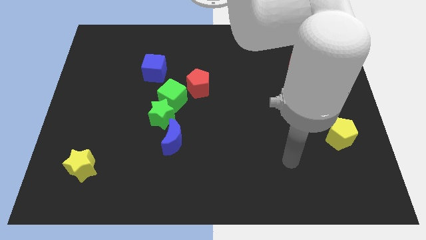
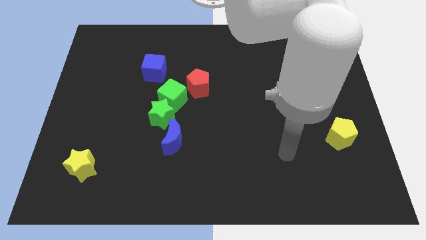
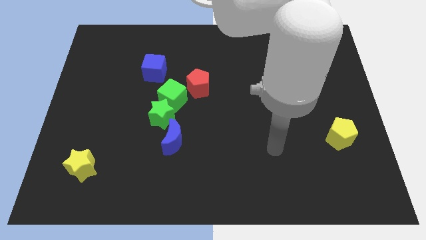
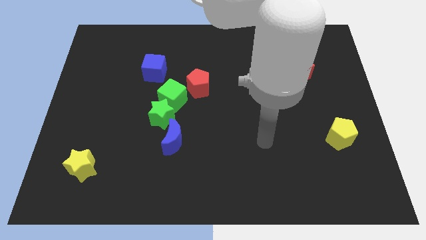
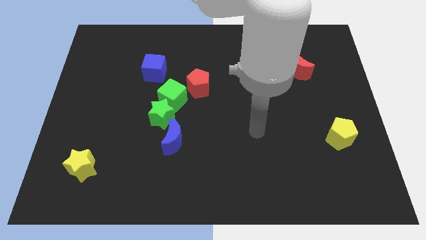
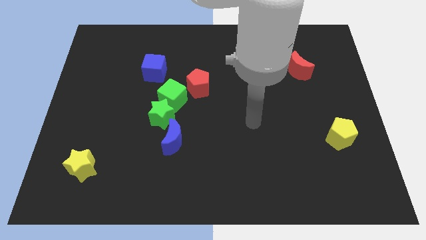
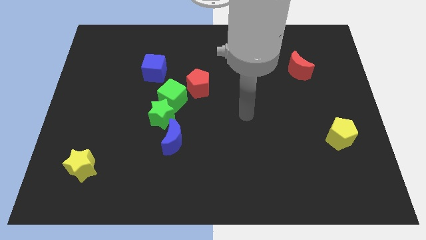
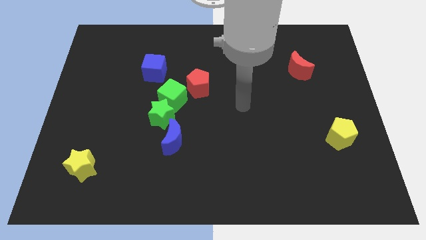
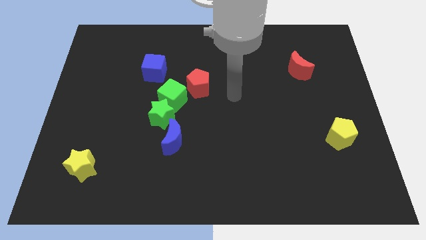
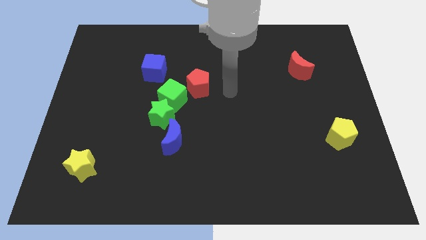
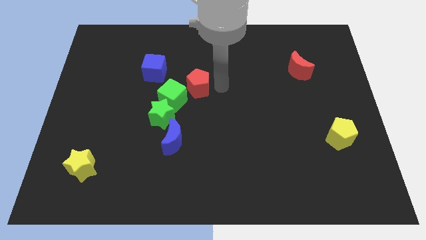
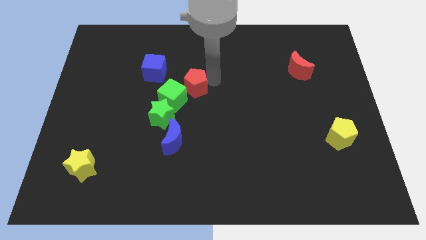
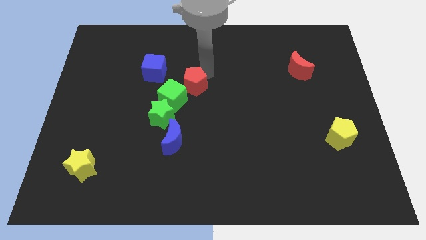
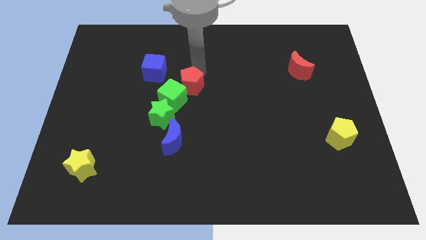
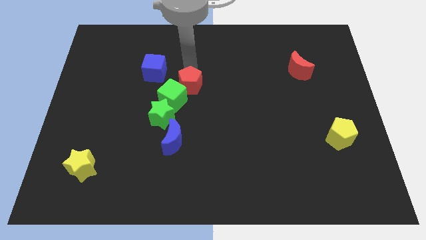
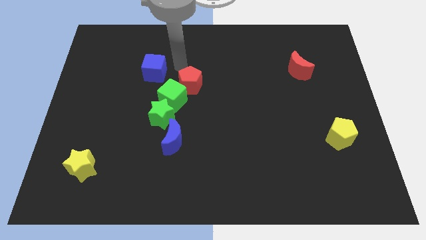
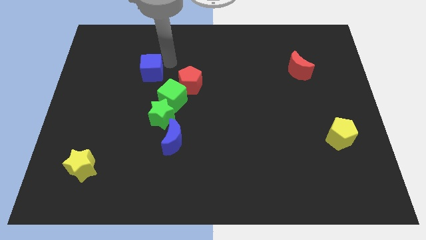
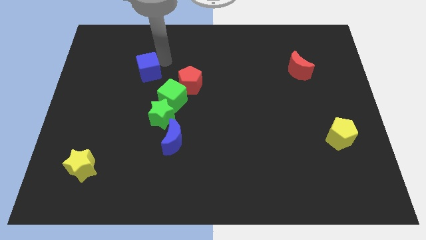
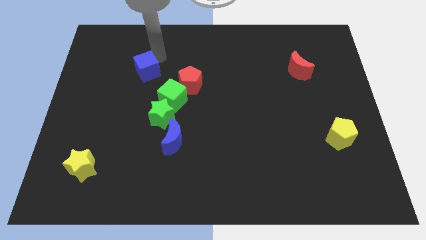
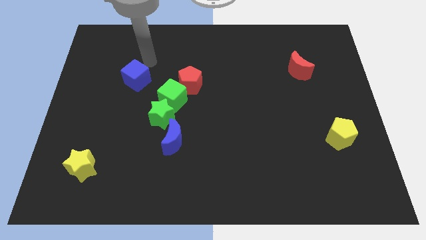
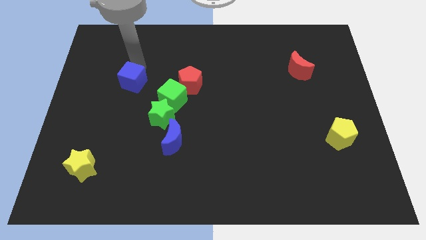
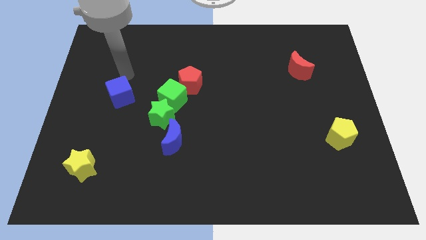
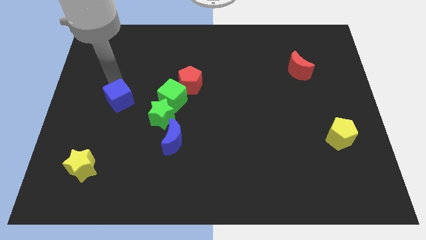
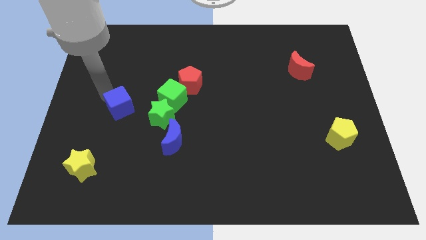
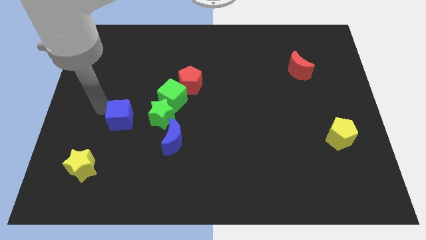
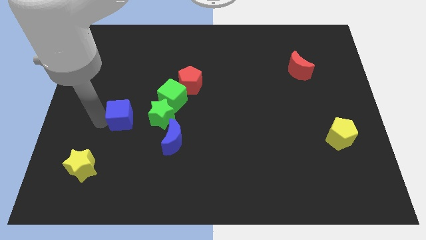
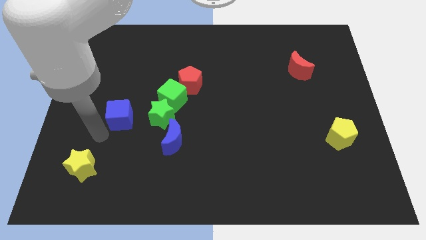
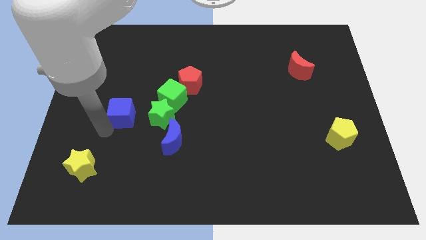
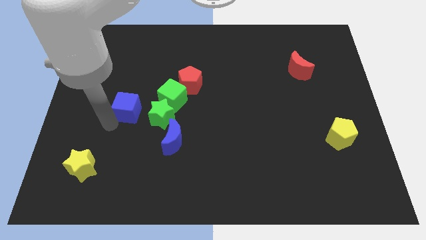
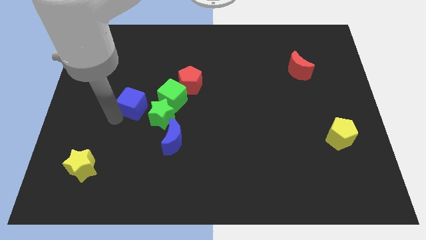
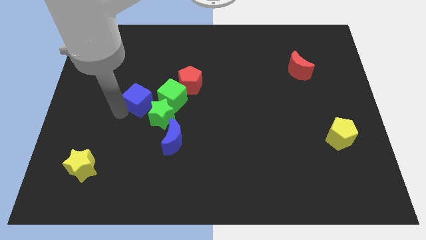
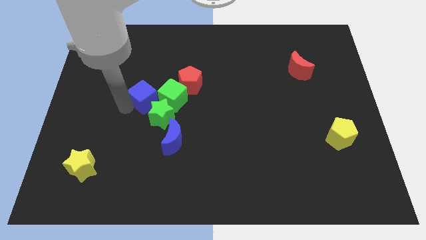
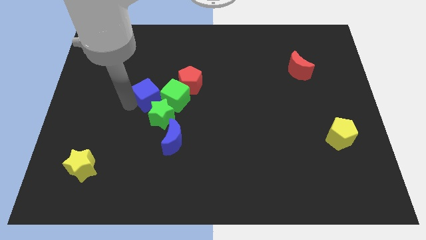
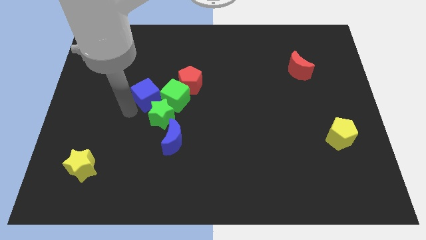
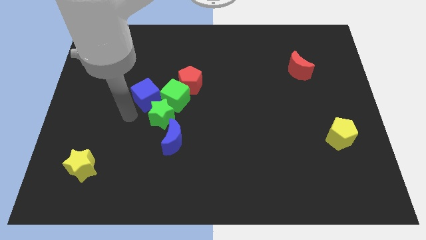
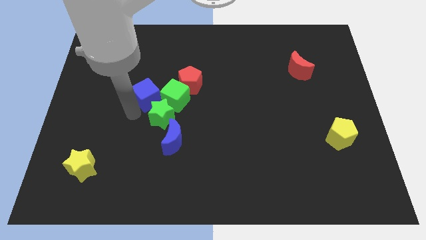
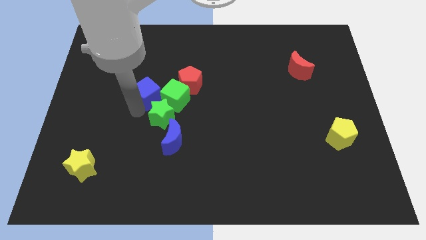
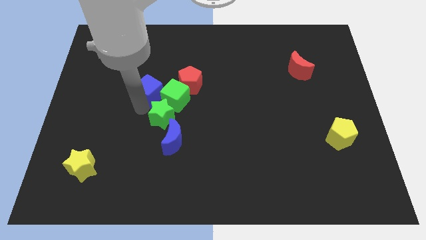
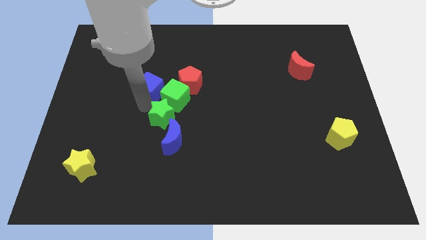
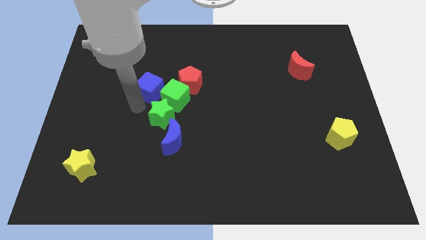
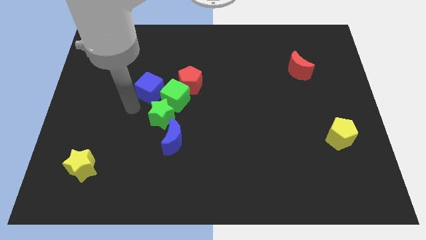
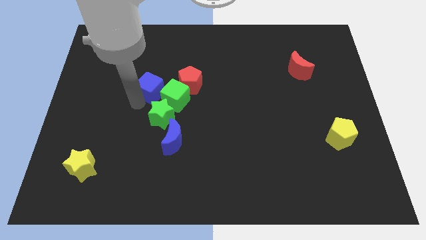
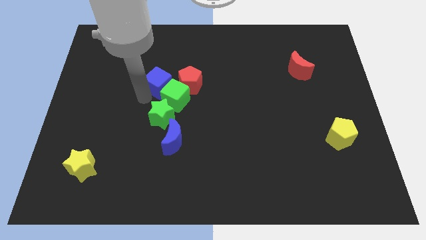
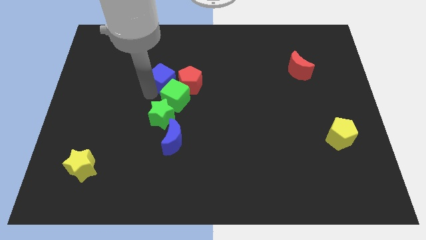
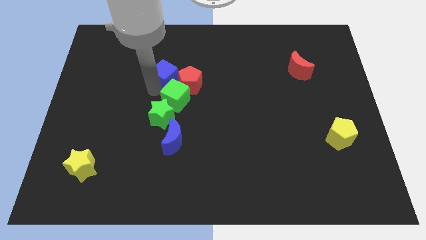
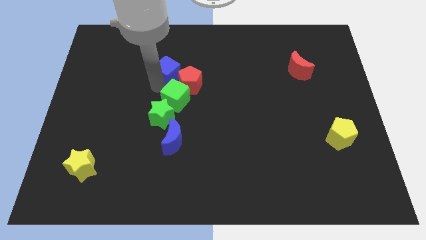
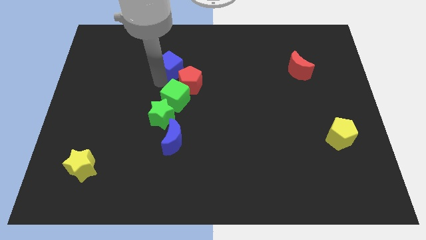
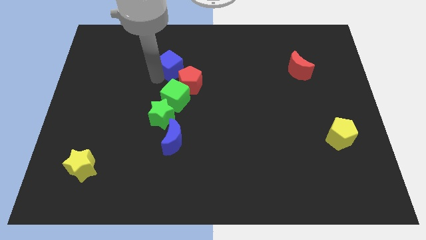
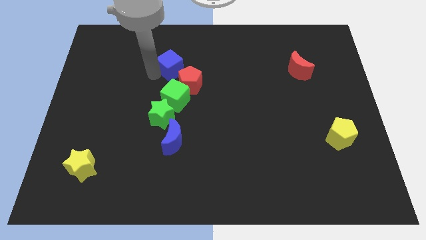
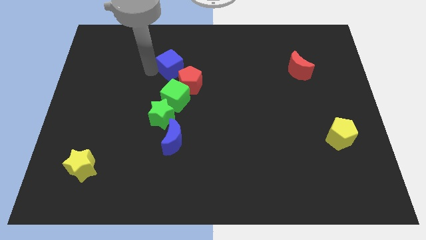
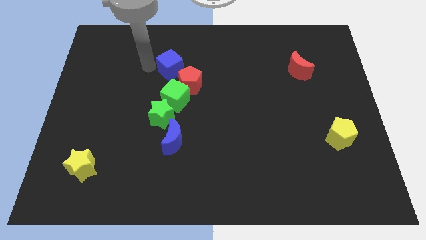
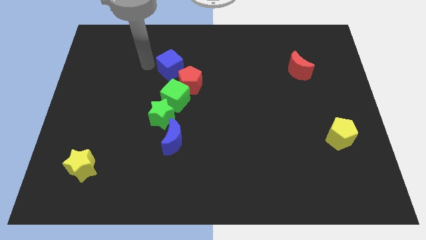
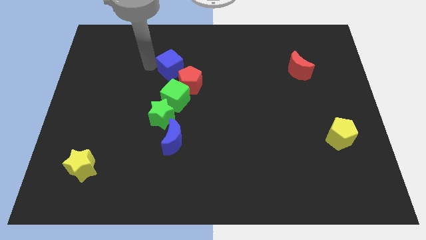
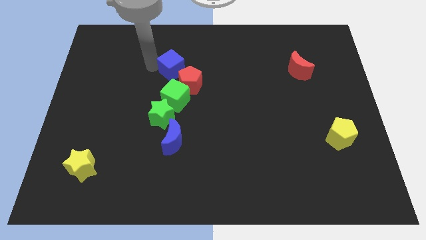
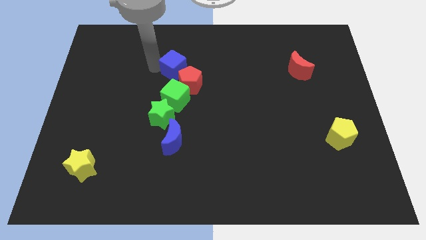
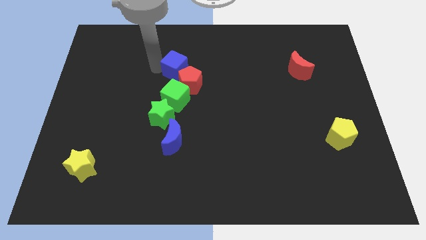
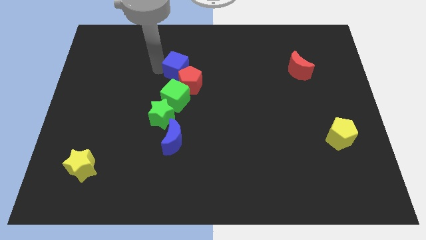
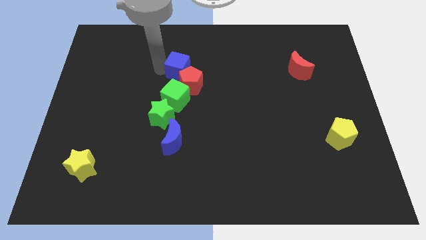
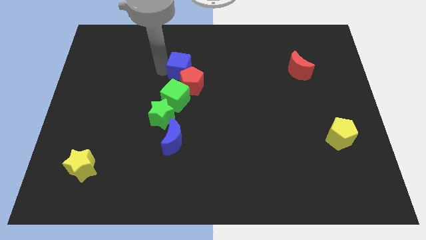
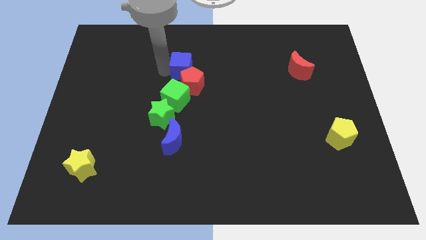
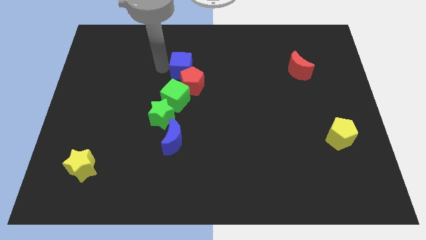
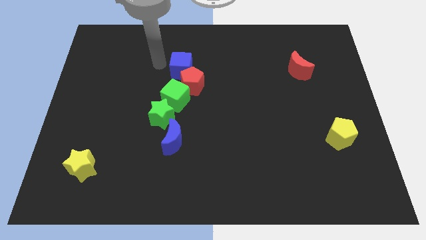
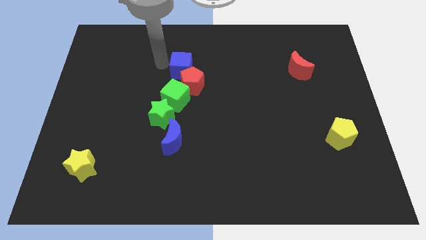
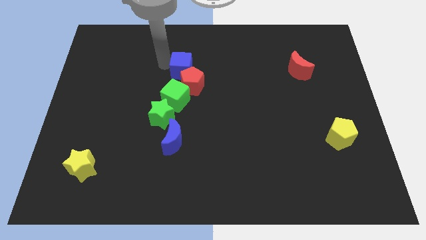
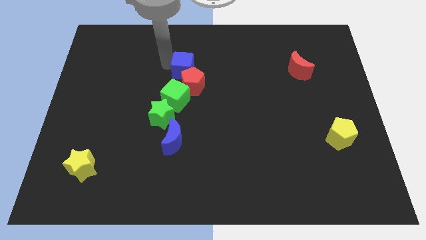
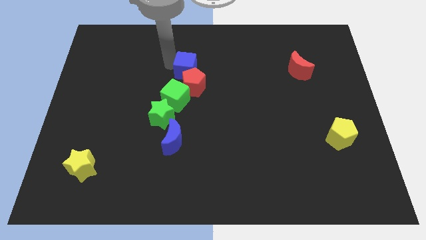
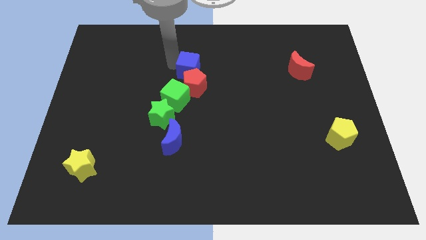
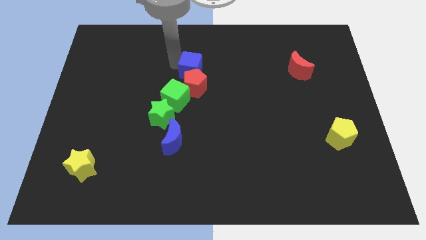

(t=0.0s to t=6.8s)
push the blue cube diagonally up and to the right of the green cube
